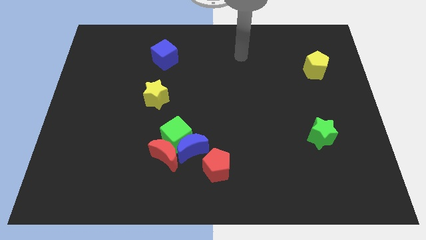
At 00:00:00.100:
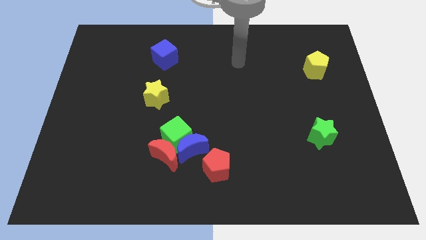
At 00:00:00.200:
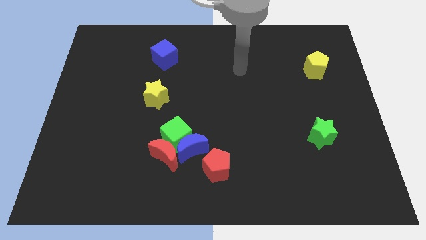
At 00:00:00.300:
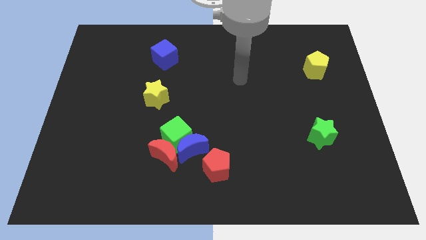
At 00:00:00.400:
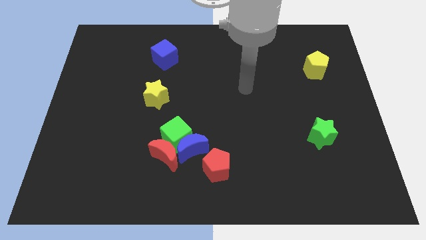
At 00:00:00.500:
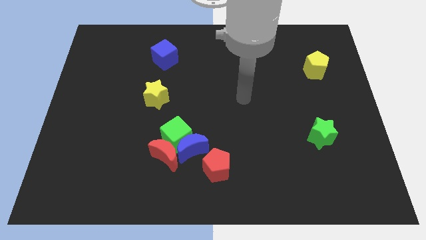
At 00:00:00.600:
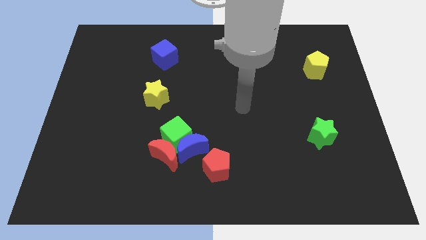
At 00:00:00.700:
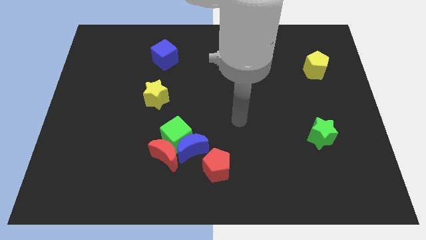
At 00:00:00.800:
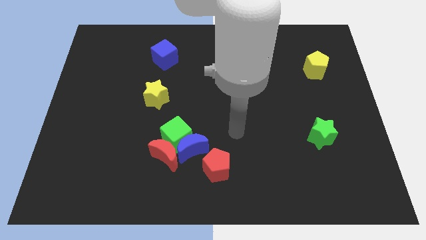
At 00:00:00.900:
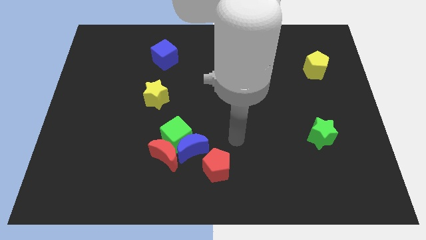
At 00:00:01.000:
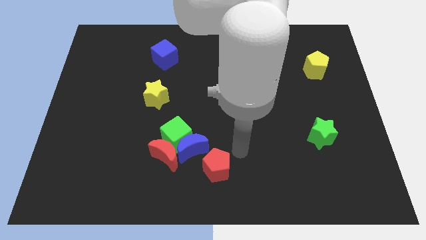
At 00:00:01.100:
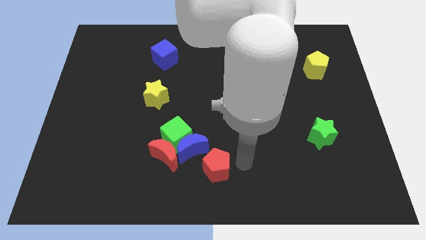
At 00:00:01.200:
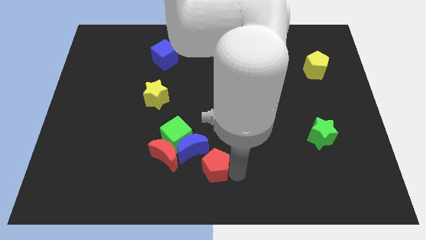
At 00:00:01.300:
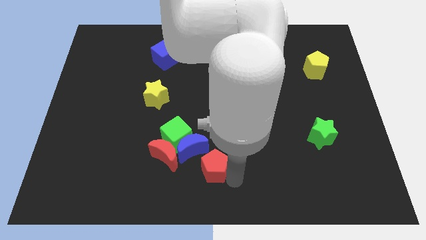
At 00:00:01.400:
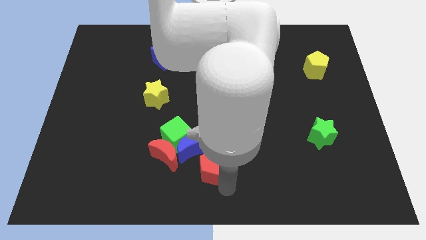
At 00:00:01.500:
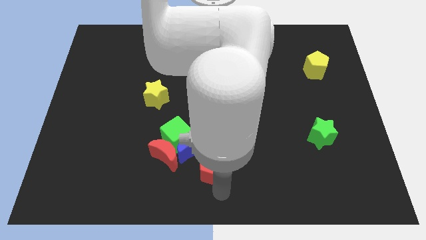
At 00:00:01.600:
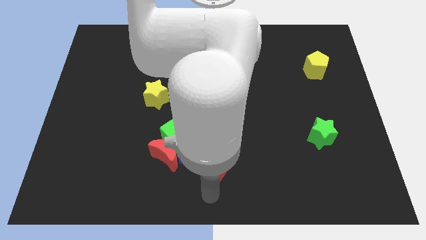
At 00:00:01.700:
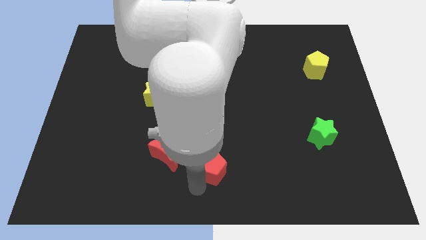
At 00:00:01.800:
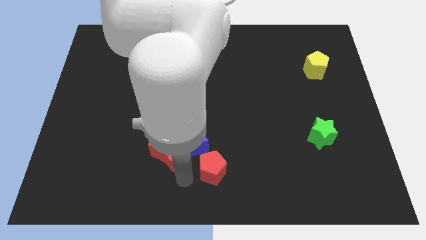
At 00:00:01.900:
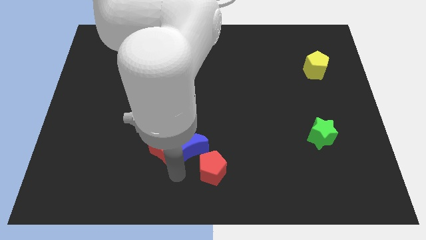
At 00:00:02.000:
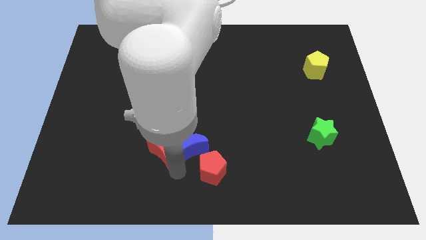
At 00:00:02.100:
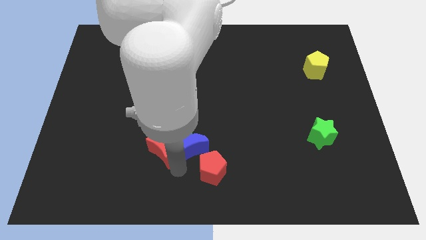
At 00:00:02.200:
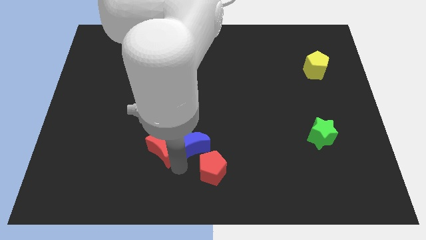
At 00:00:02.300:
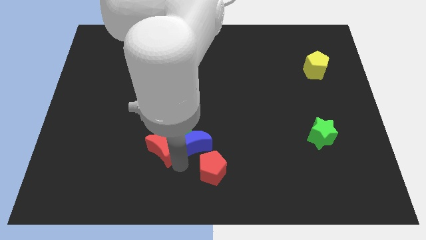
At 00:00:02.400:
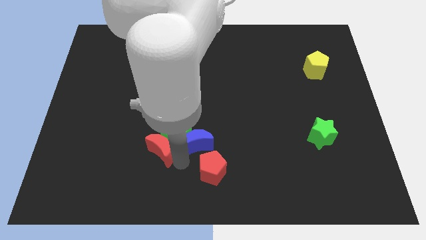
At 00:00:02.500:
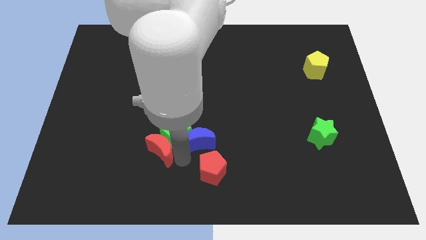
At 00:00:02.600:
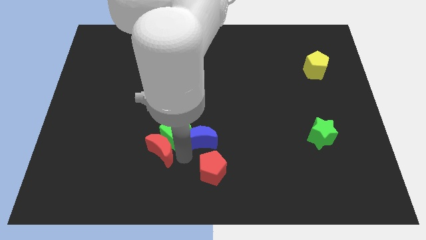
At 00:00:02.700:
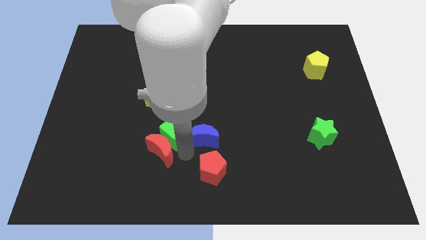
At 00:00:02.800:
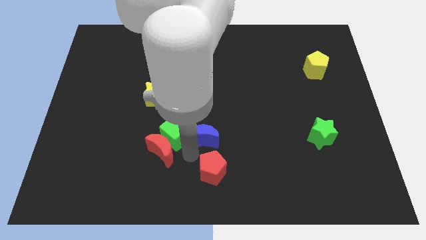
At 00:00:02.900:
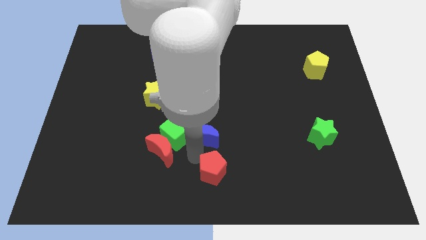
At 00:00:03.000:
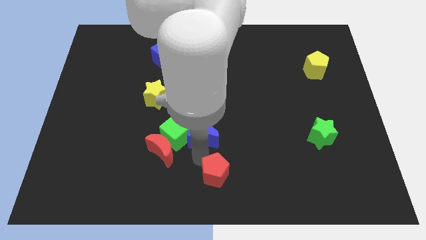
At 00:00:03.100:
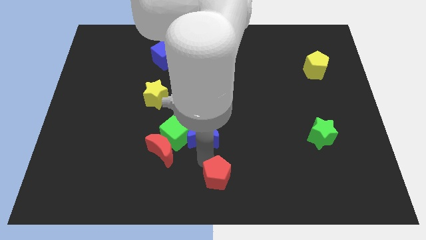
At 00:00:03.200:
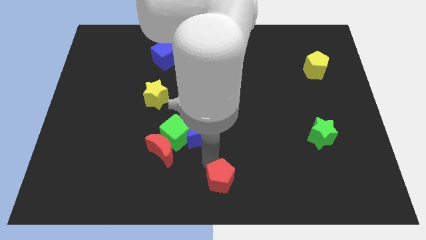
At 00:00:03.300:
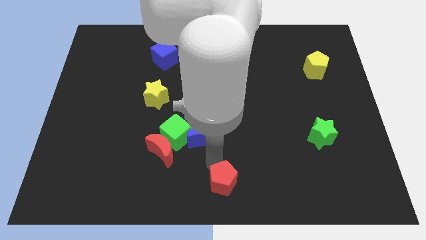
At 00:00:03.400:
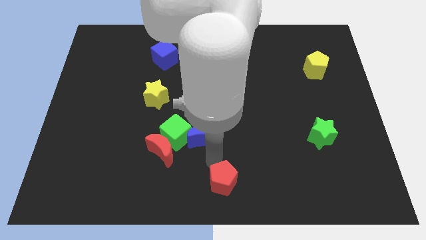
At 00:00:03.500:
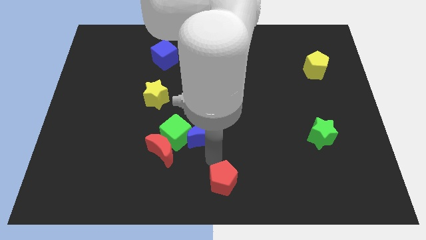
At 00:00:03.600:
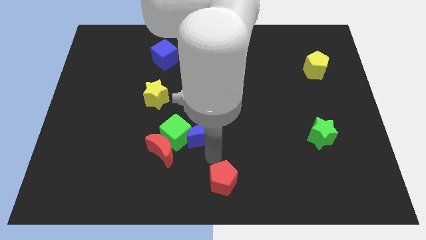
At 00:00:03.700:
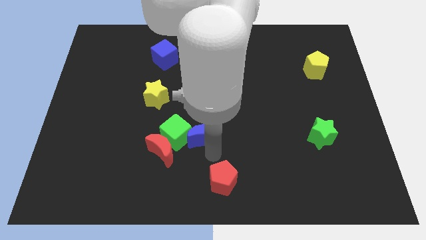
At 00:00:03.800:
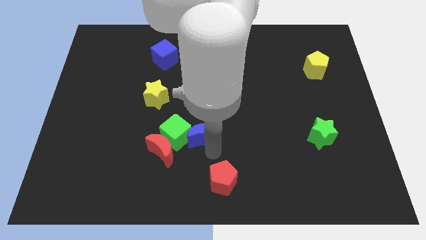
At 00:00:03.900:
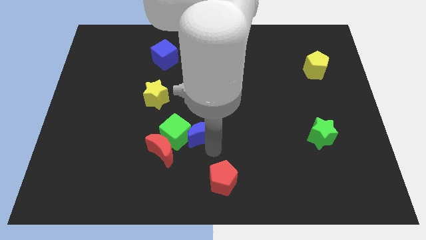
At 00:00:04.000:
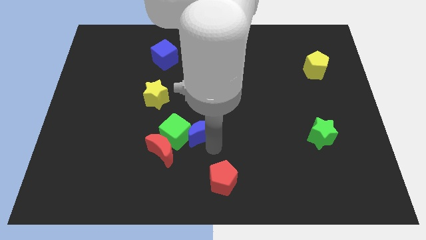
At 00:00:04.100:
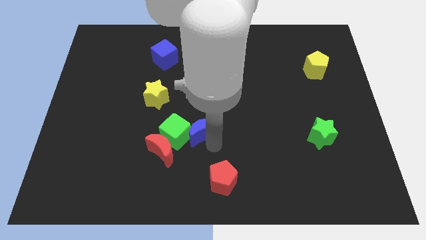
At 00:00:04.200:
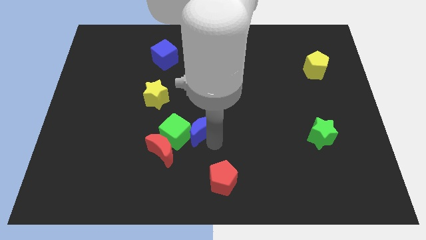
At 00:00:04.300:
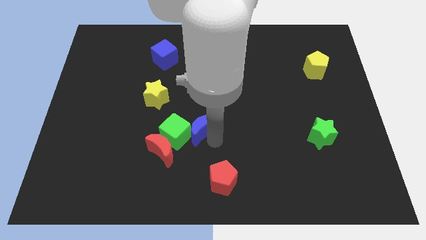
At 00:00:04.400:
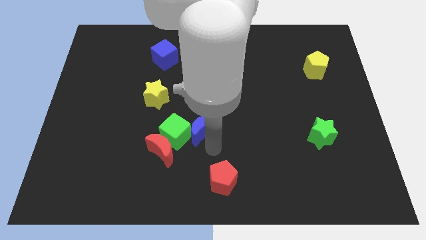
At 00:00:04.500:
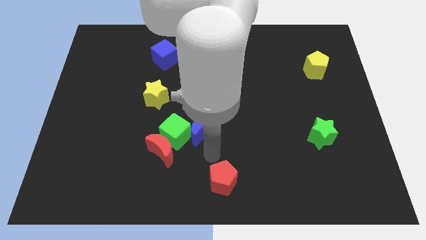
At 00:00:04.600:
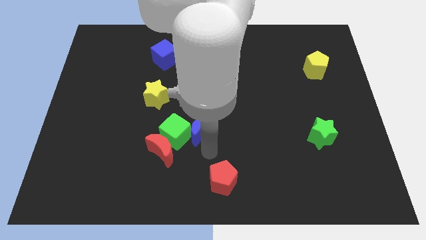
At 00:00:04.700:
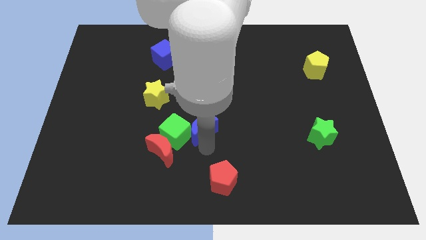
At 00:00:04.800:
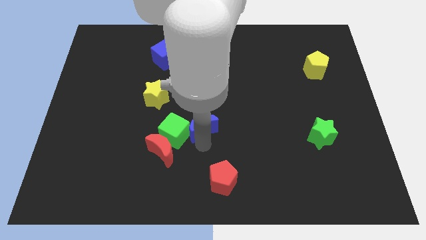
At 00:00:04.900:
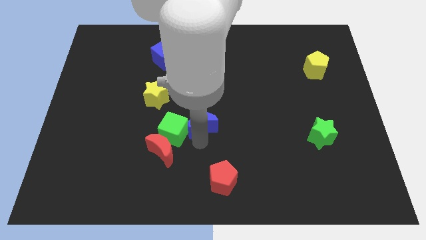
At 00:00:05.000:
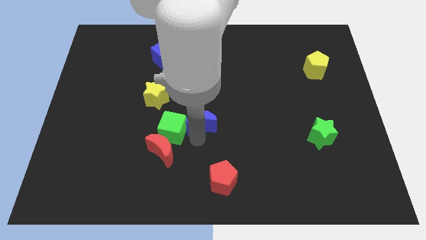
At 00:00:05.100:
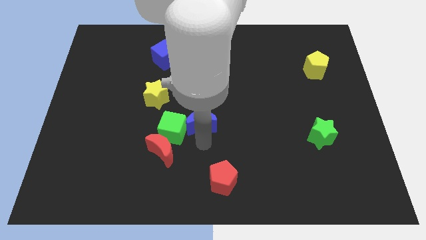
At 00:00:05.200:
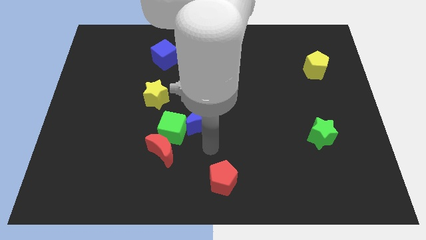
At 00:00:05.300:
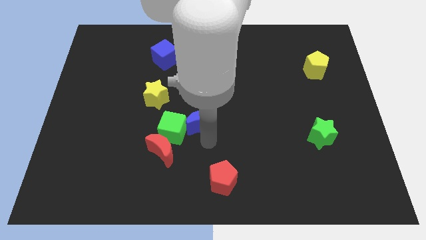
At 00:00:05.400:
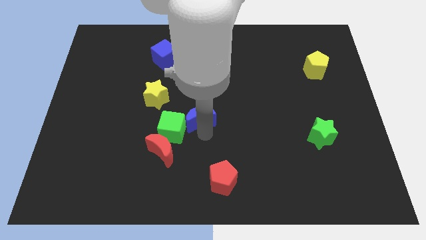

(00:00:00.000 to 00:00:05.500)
slightly move the blue moon up

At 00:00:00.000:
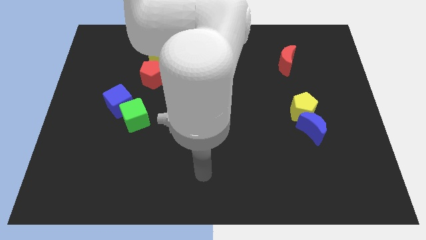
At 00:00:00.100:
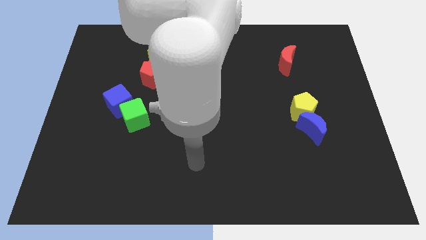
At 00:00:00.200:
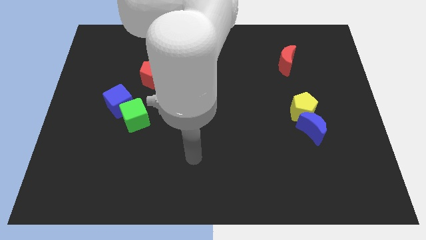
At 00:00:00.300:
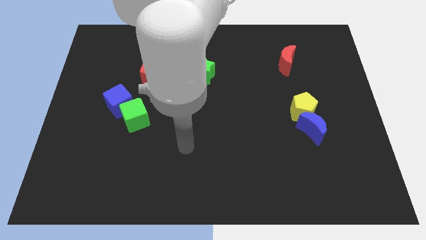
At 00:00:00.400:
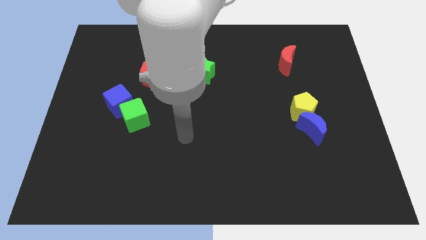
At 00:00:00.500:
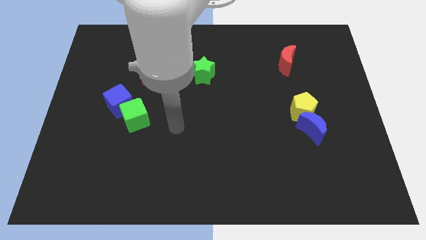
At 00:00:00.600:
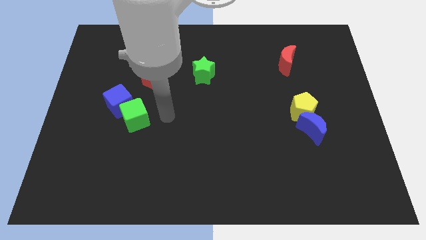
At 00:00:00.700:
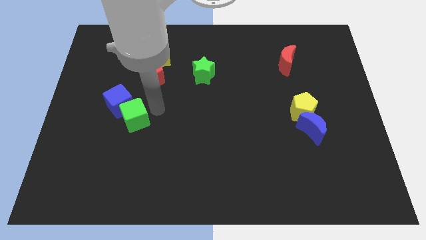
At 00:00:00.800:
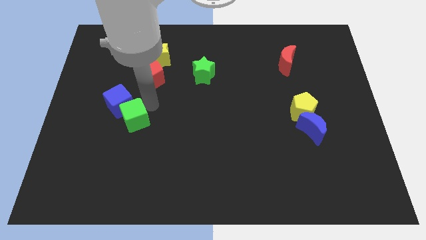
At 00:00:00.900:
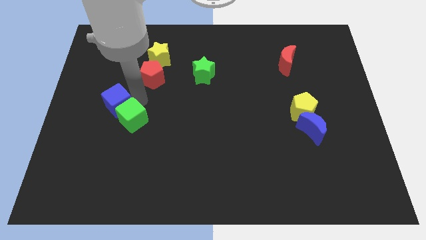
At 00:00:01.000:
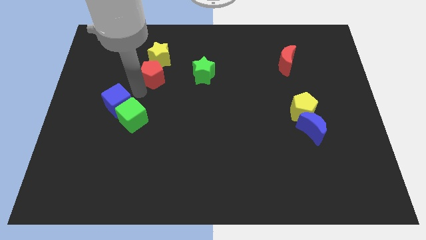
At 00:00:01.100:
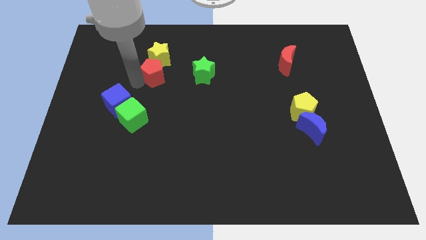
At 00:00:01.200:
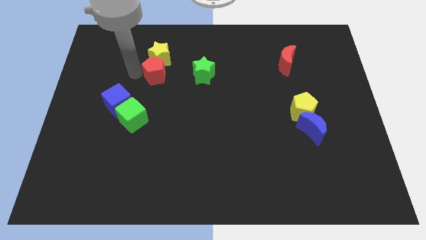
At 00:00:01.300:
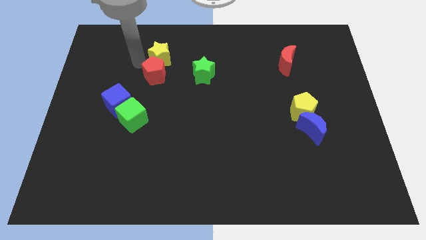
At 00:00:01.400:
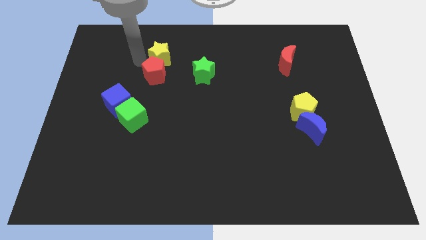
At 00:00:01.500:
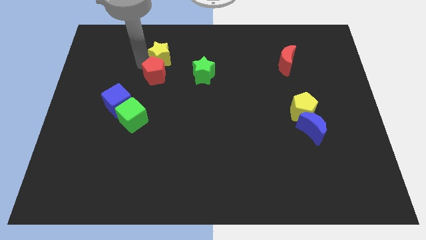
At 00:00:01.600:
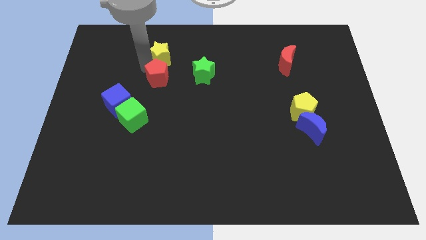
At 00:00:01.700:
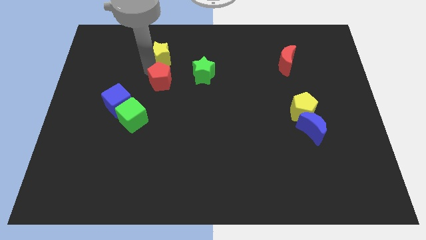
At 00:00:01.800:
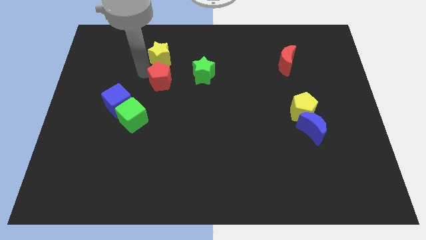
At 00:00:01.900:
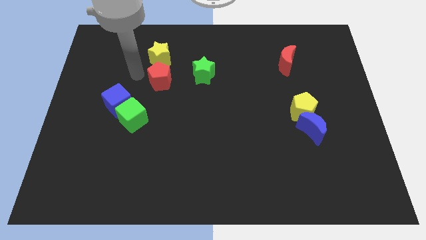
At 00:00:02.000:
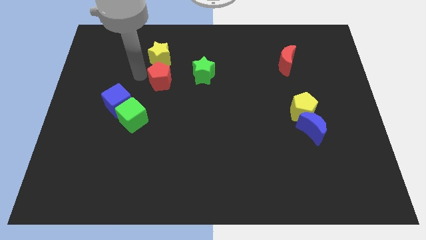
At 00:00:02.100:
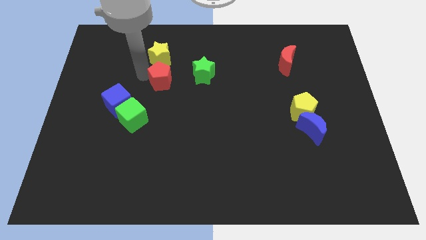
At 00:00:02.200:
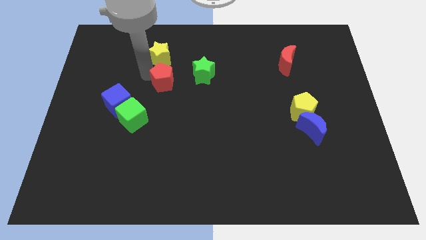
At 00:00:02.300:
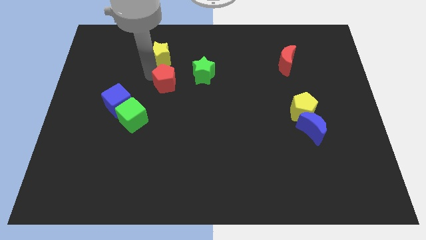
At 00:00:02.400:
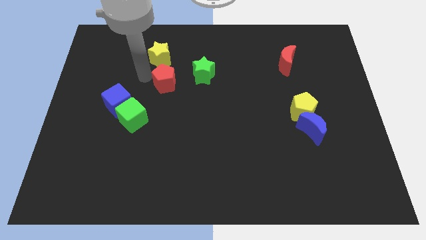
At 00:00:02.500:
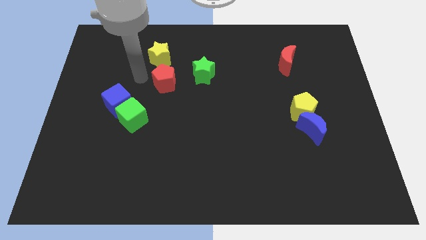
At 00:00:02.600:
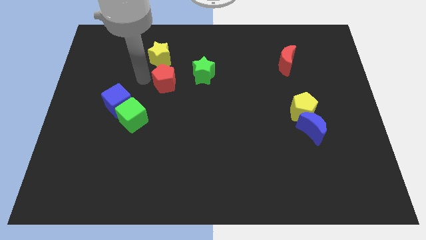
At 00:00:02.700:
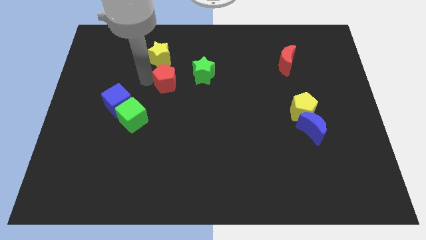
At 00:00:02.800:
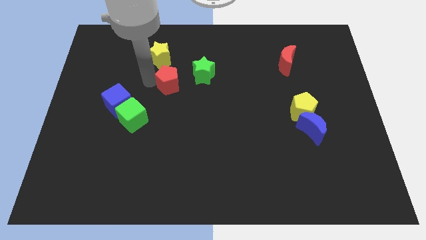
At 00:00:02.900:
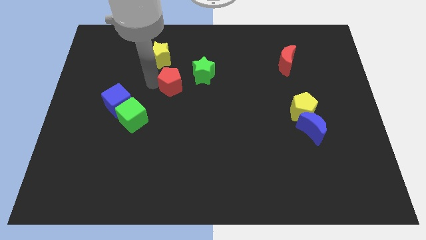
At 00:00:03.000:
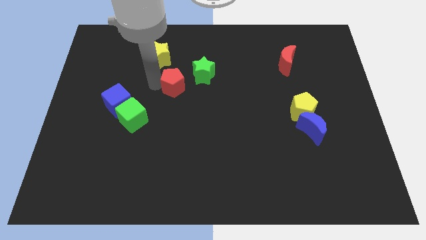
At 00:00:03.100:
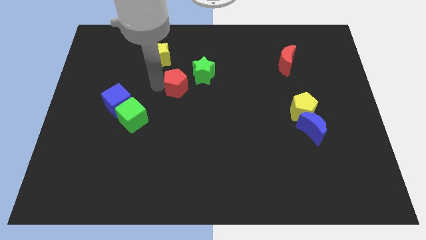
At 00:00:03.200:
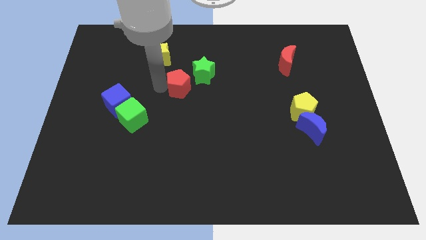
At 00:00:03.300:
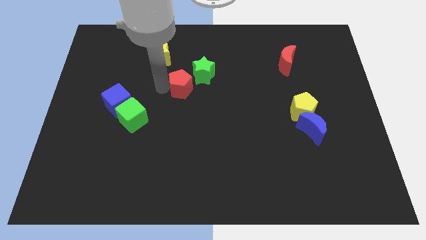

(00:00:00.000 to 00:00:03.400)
move the red pentagon a little bit right
